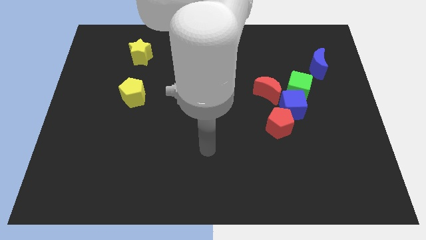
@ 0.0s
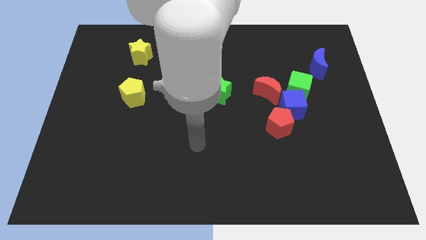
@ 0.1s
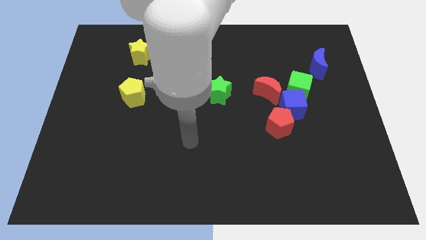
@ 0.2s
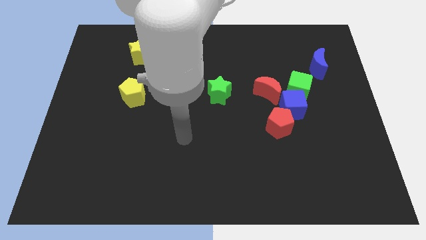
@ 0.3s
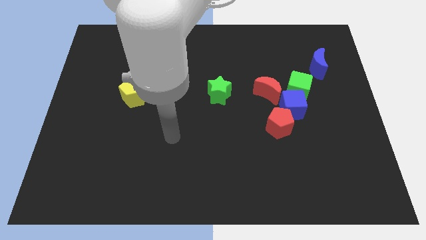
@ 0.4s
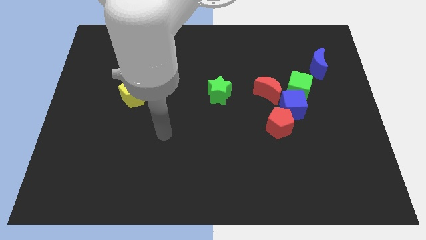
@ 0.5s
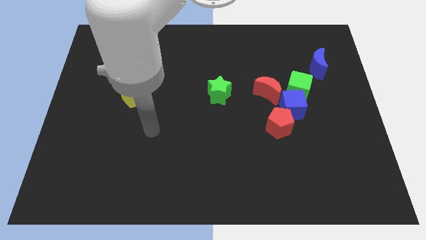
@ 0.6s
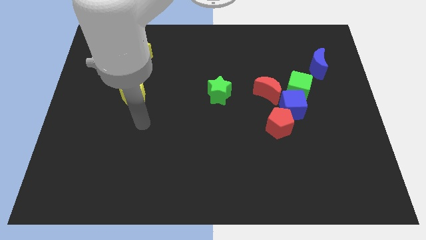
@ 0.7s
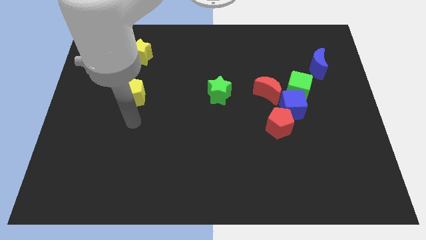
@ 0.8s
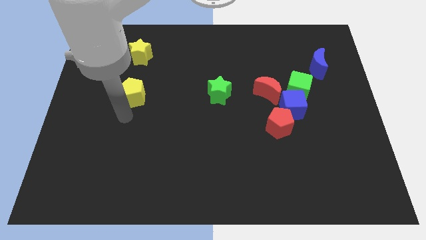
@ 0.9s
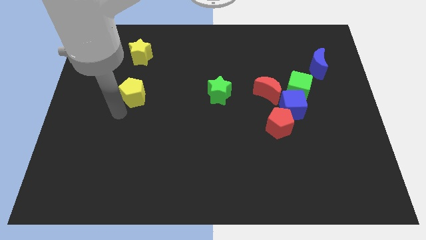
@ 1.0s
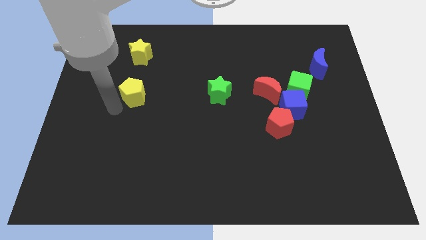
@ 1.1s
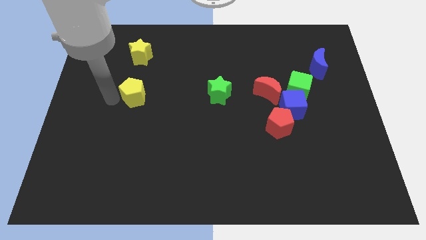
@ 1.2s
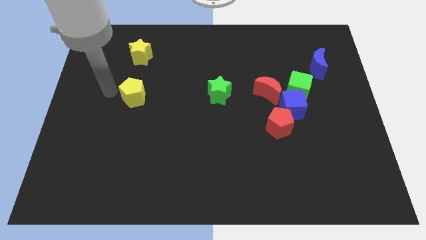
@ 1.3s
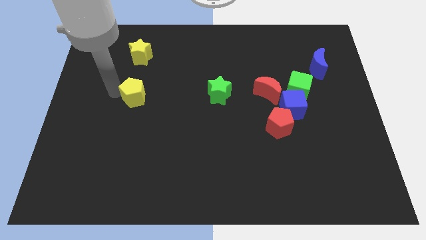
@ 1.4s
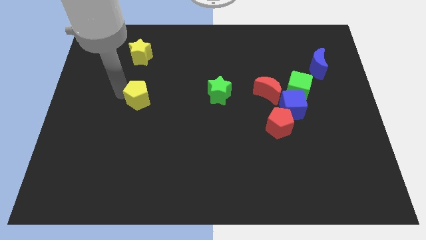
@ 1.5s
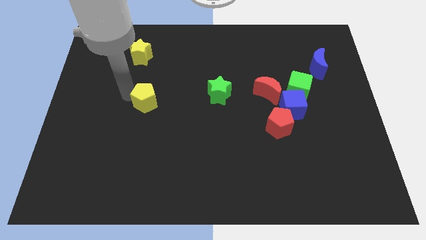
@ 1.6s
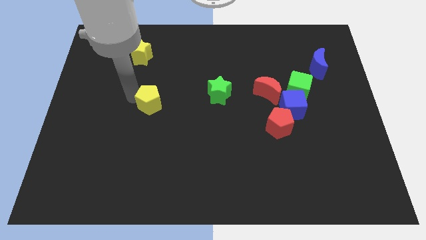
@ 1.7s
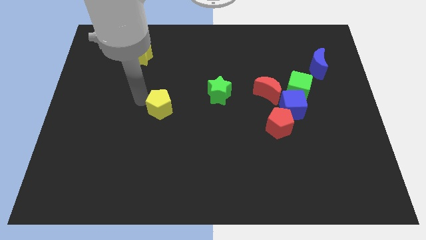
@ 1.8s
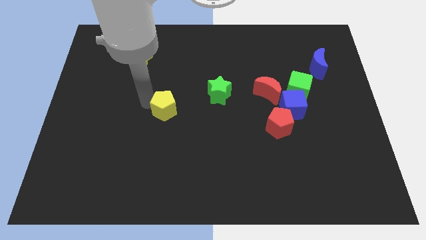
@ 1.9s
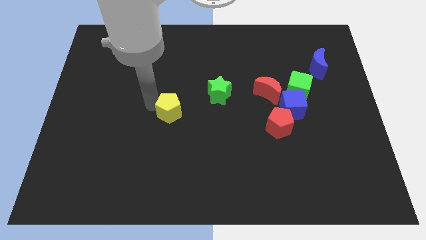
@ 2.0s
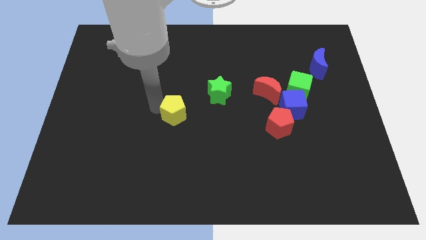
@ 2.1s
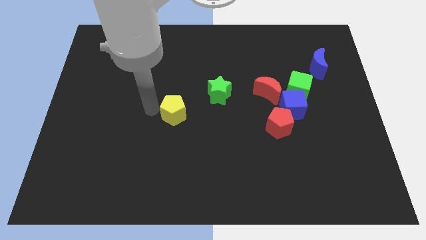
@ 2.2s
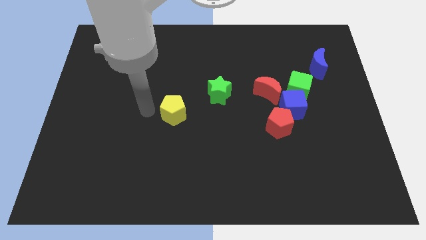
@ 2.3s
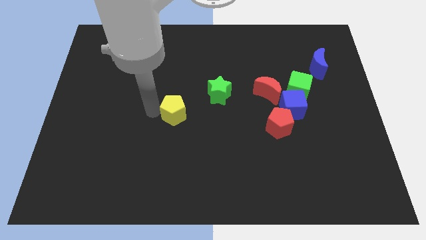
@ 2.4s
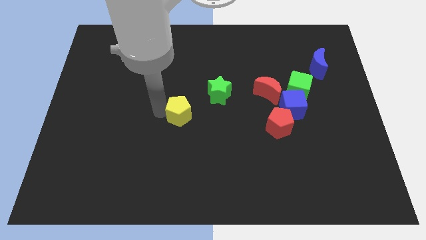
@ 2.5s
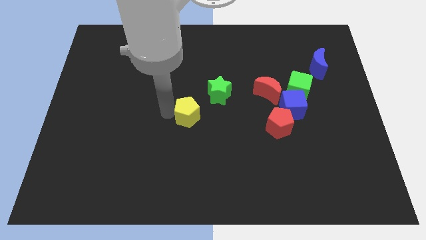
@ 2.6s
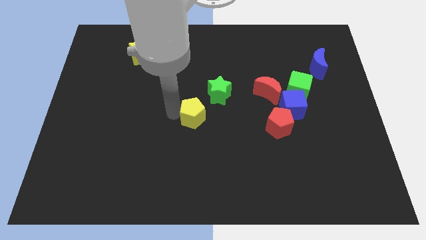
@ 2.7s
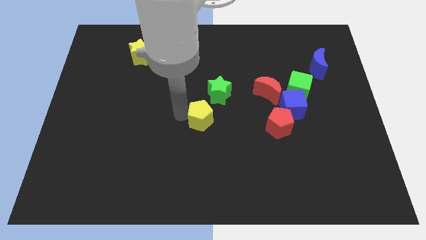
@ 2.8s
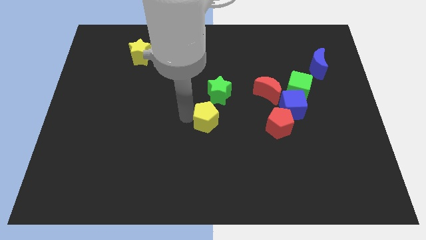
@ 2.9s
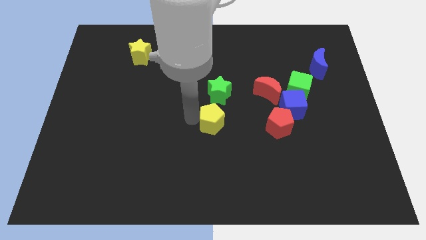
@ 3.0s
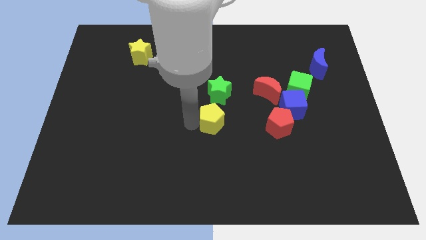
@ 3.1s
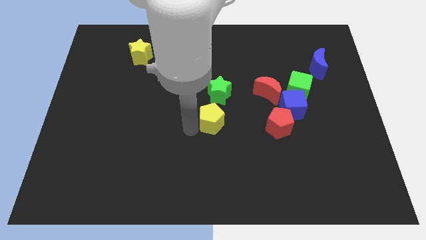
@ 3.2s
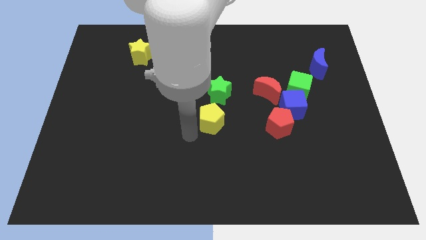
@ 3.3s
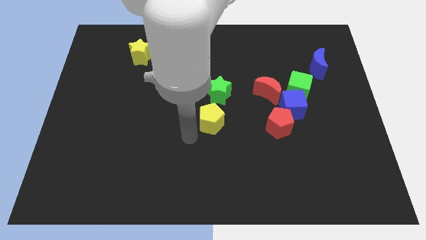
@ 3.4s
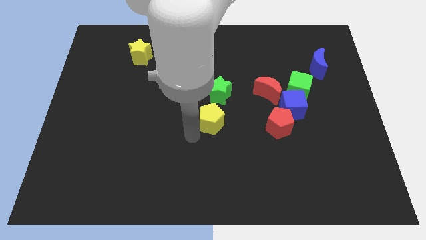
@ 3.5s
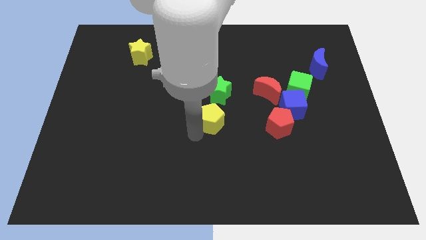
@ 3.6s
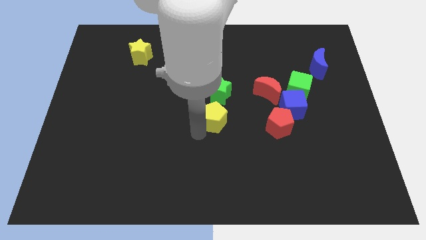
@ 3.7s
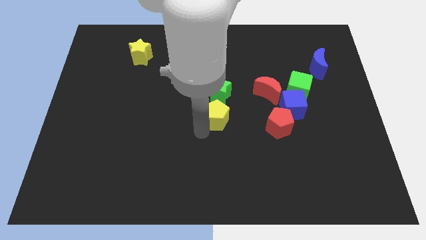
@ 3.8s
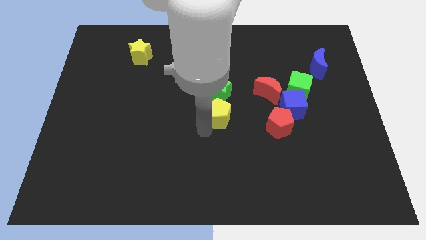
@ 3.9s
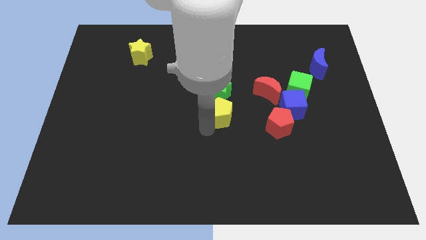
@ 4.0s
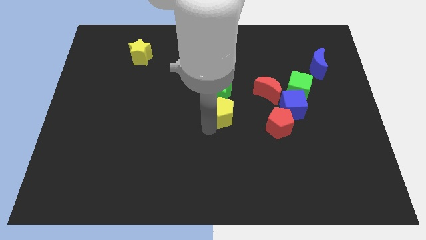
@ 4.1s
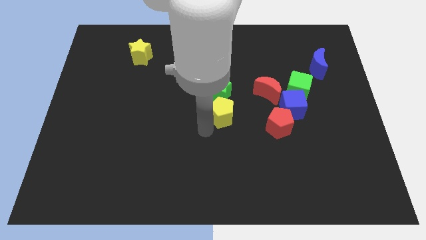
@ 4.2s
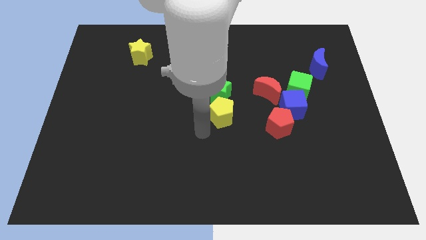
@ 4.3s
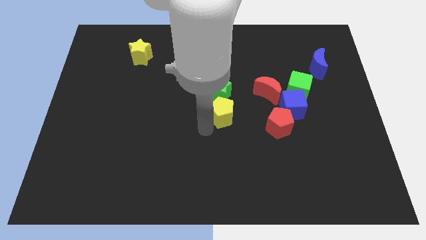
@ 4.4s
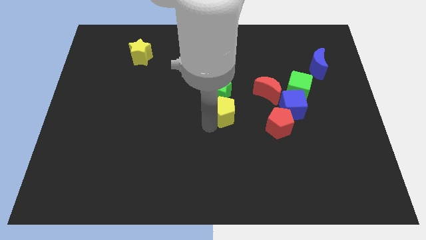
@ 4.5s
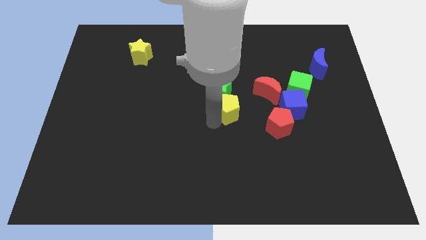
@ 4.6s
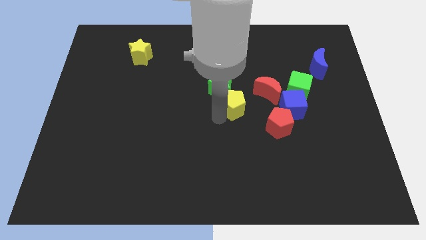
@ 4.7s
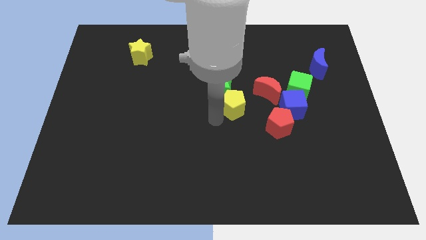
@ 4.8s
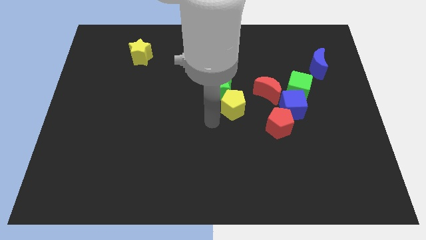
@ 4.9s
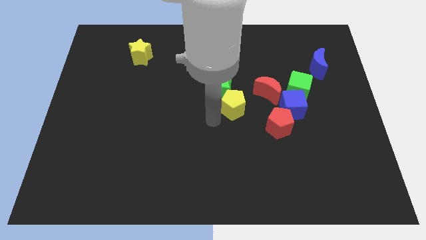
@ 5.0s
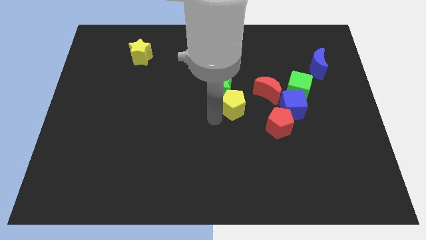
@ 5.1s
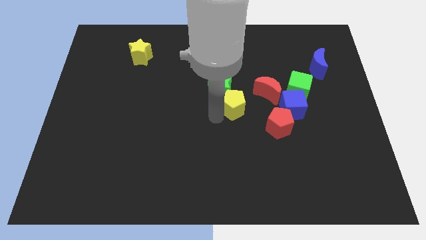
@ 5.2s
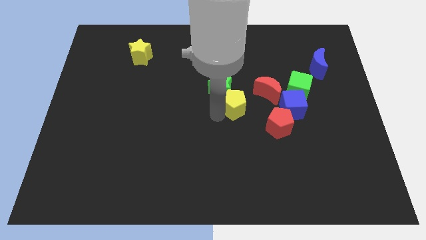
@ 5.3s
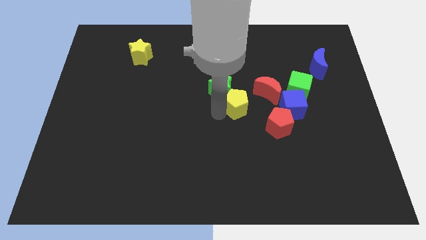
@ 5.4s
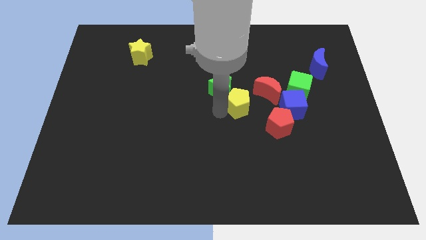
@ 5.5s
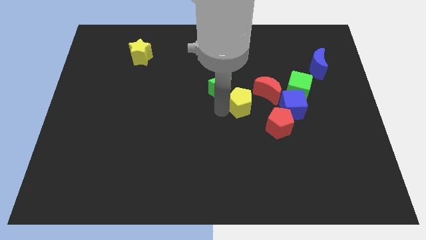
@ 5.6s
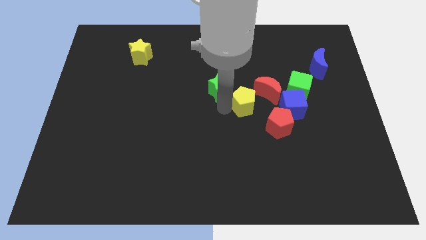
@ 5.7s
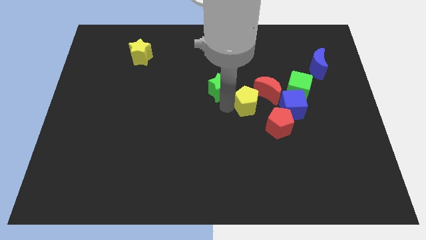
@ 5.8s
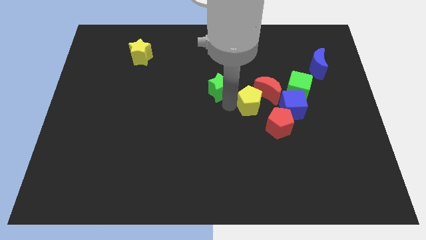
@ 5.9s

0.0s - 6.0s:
put the yellow pentagon close to the red moon

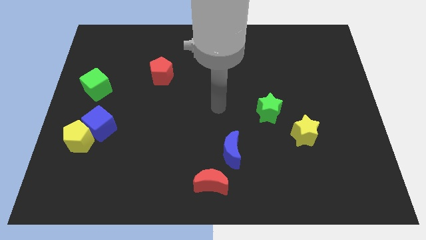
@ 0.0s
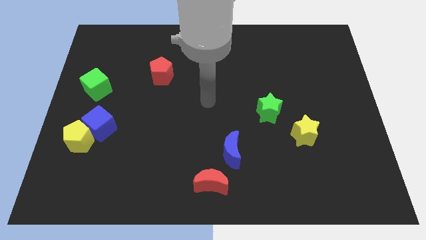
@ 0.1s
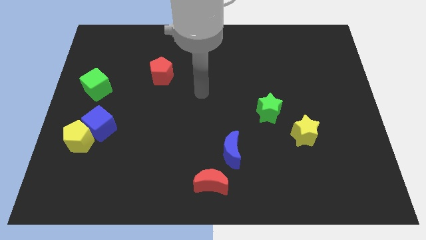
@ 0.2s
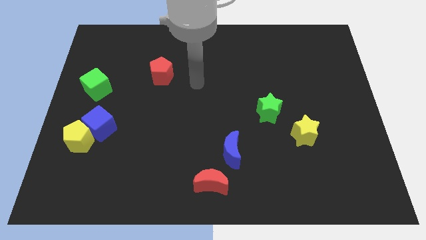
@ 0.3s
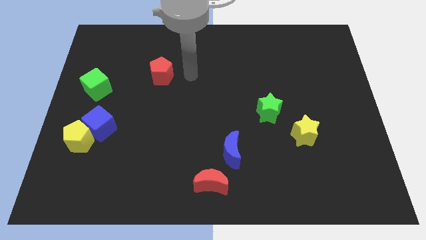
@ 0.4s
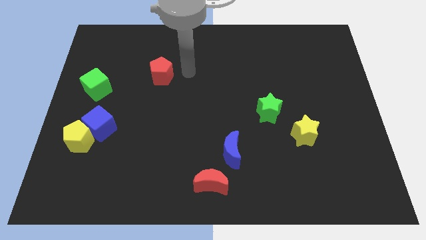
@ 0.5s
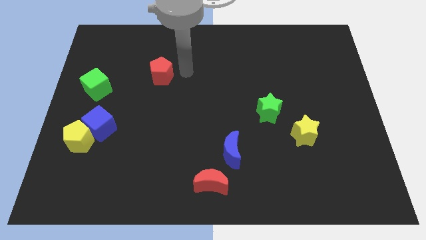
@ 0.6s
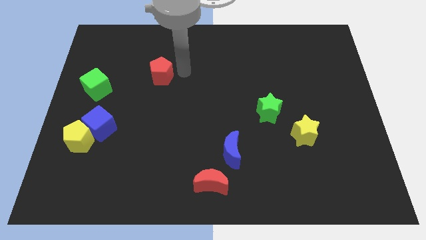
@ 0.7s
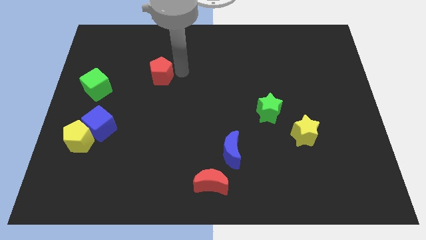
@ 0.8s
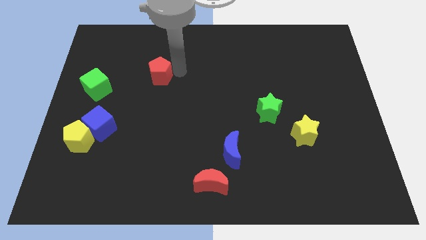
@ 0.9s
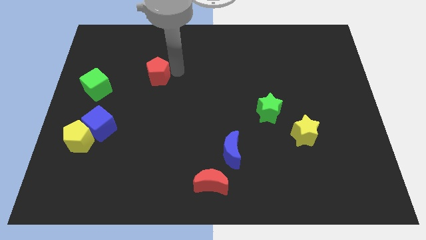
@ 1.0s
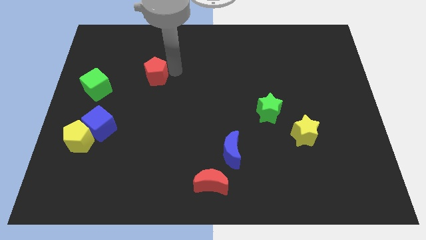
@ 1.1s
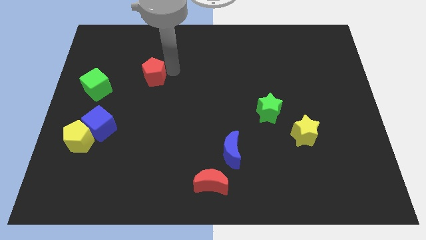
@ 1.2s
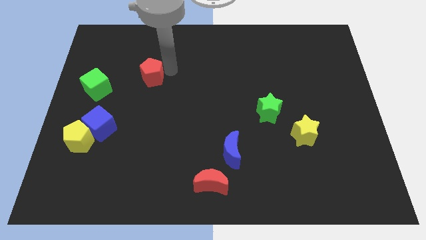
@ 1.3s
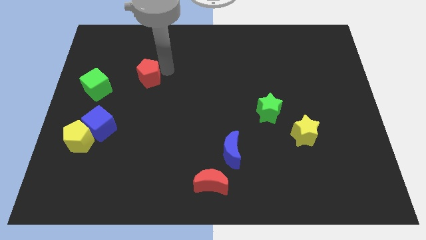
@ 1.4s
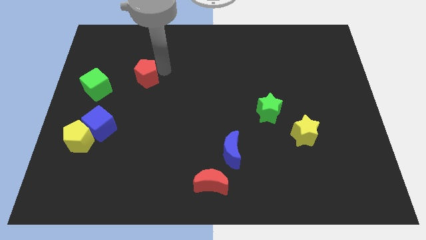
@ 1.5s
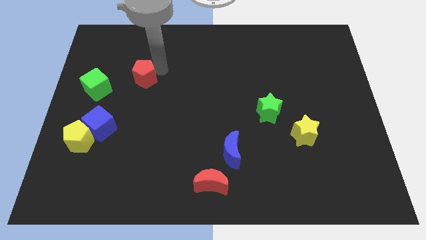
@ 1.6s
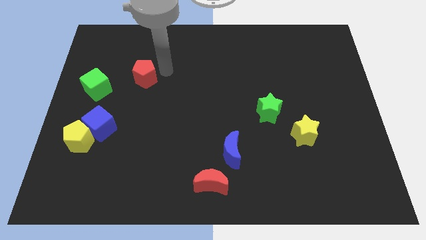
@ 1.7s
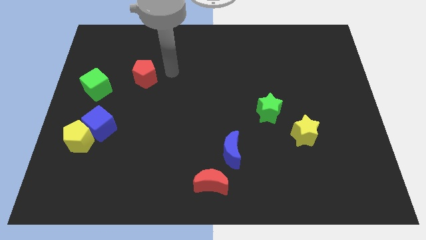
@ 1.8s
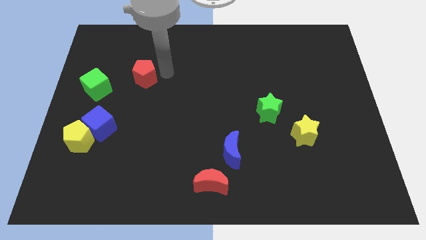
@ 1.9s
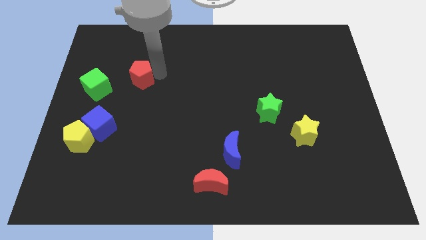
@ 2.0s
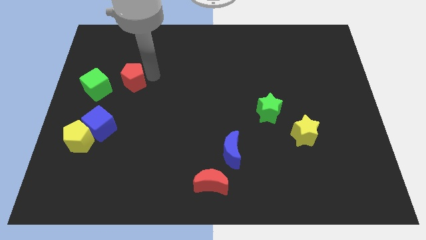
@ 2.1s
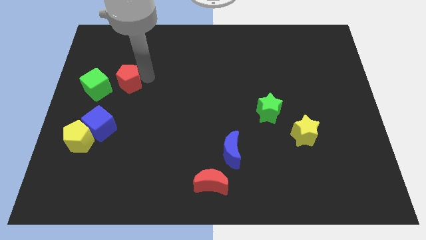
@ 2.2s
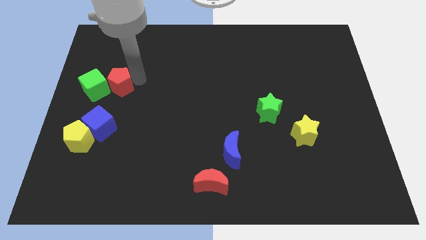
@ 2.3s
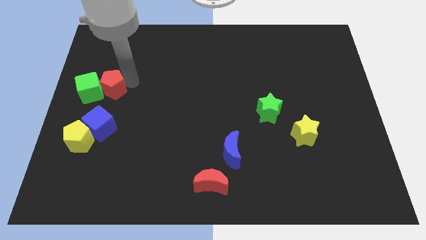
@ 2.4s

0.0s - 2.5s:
slide the red pentagon next to the green cube
